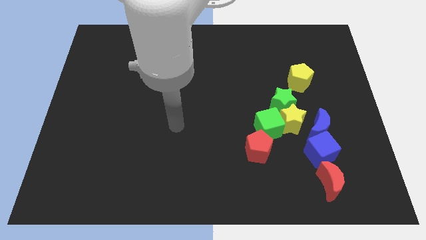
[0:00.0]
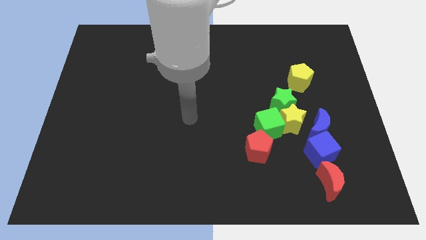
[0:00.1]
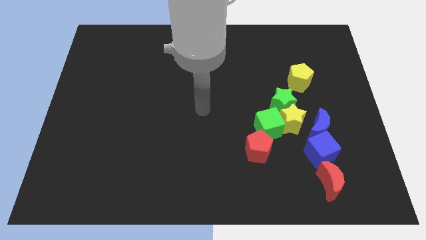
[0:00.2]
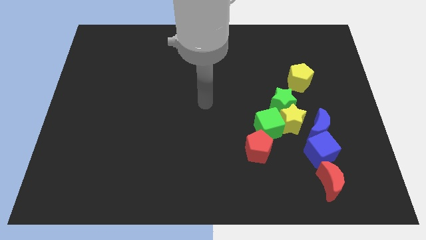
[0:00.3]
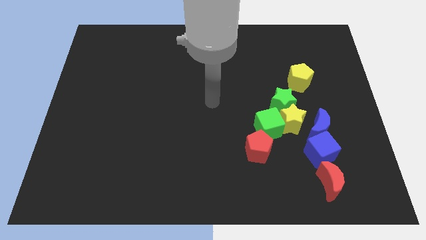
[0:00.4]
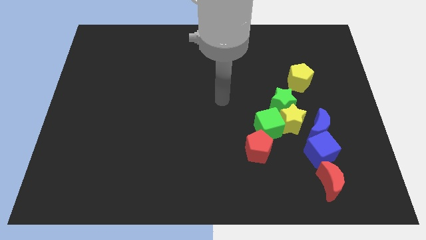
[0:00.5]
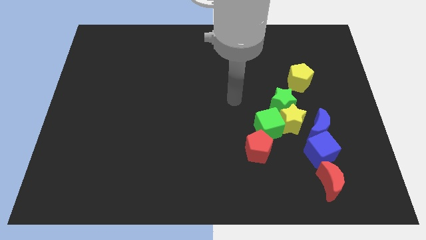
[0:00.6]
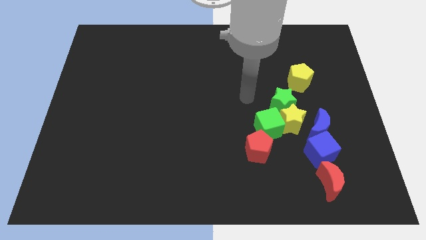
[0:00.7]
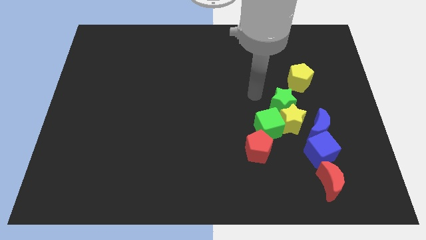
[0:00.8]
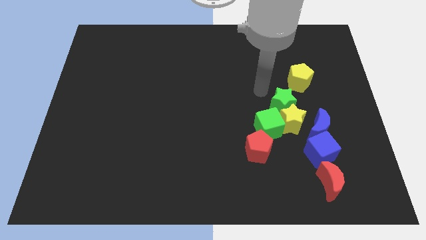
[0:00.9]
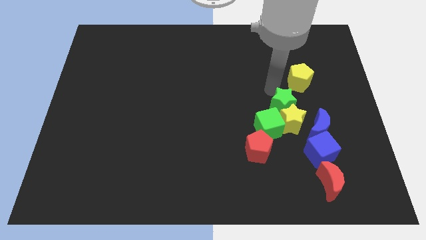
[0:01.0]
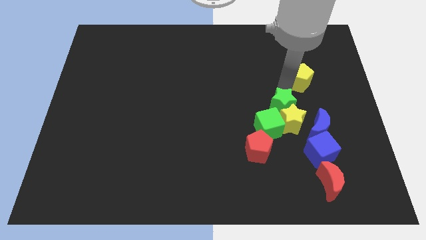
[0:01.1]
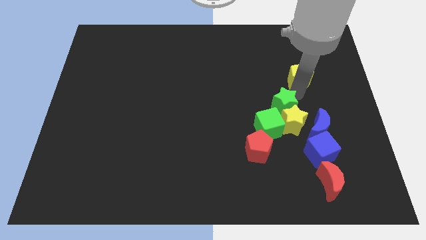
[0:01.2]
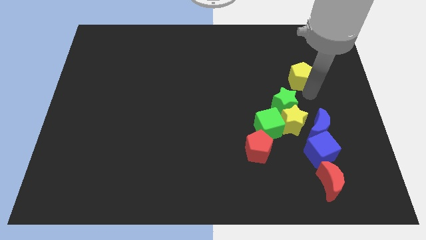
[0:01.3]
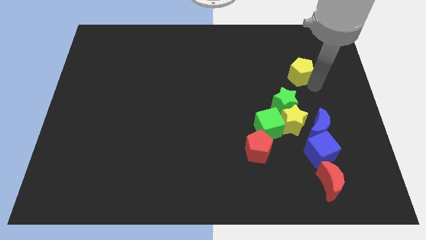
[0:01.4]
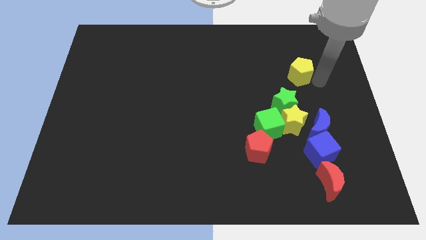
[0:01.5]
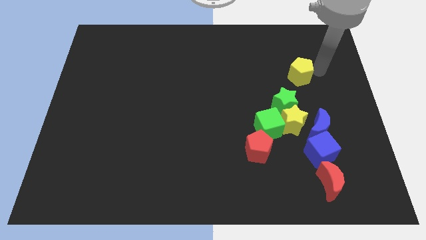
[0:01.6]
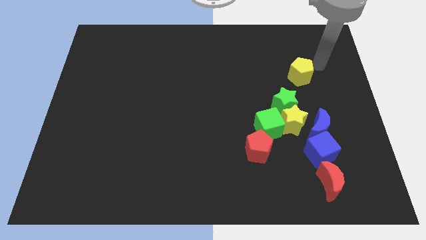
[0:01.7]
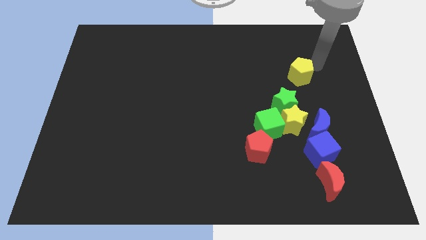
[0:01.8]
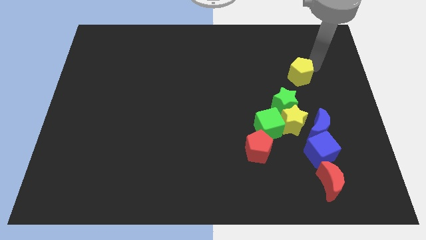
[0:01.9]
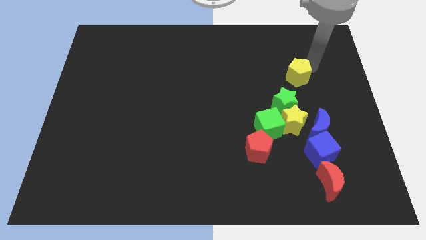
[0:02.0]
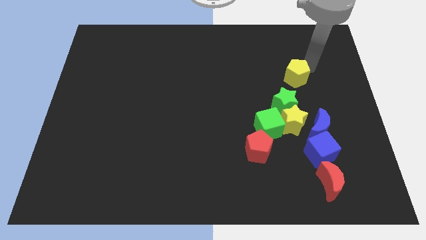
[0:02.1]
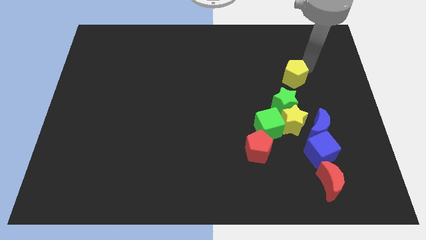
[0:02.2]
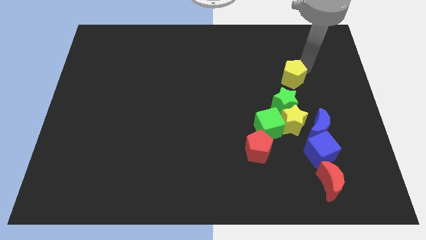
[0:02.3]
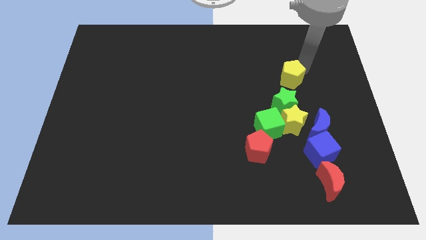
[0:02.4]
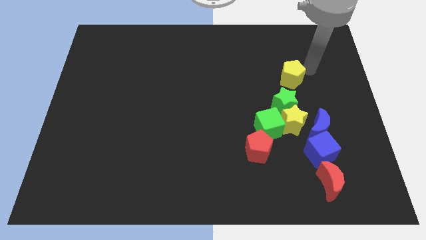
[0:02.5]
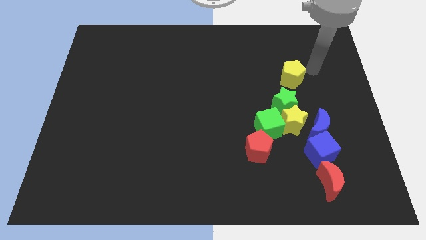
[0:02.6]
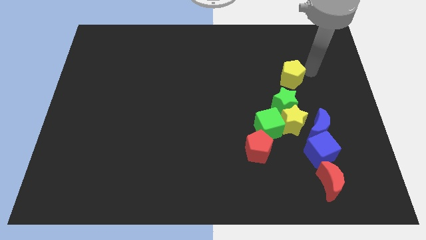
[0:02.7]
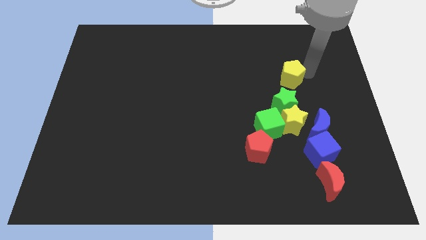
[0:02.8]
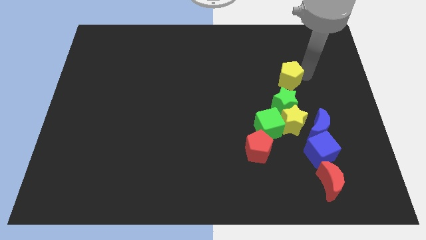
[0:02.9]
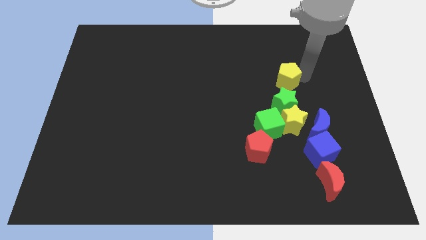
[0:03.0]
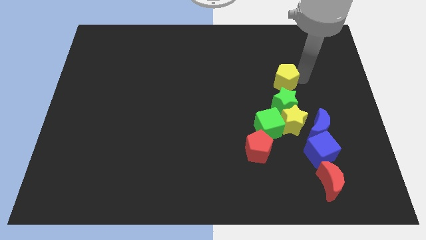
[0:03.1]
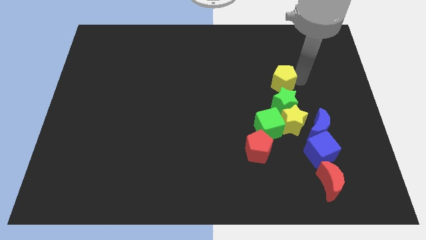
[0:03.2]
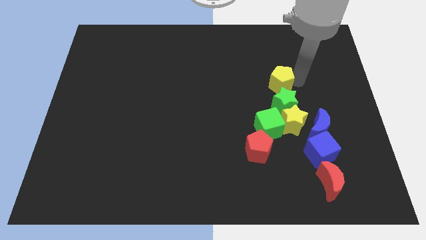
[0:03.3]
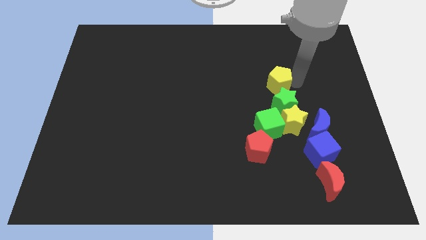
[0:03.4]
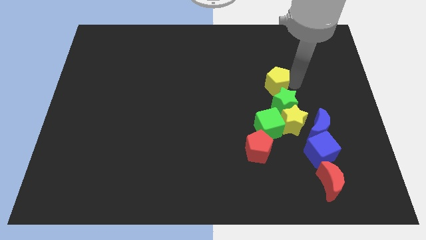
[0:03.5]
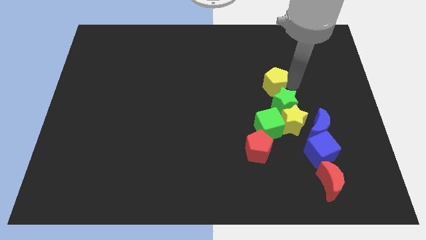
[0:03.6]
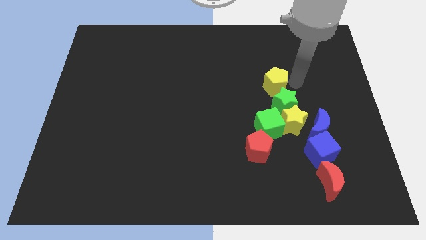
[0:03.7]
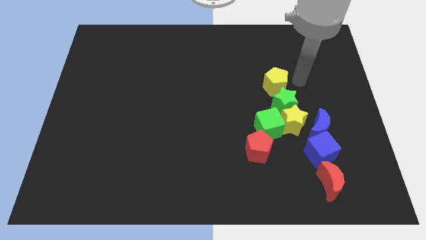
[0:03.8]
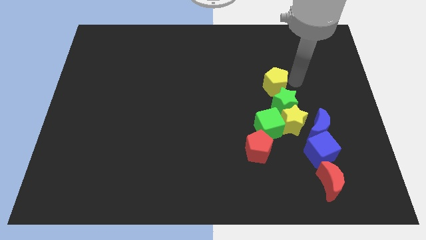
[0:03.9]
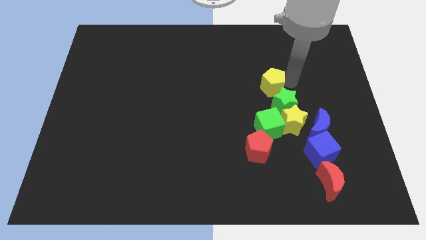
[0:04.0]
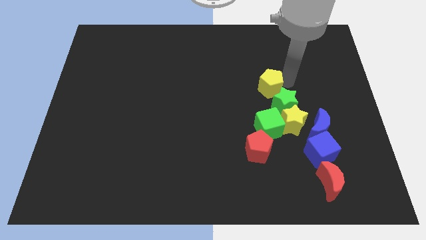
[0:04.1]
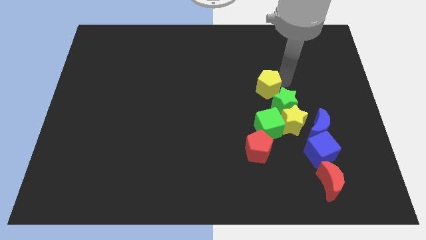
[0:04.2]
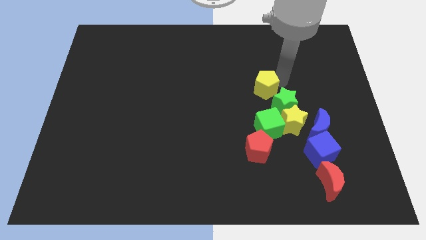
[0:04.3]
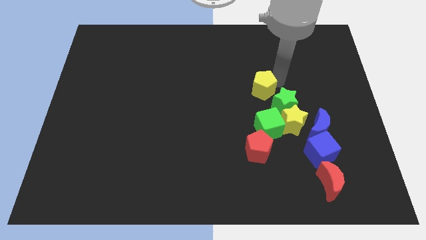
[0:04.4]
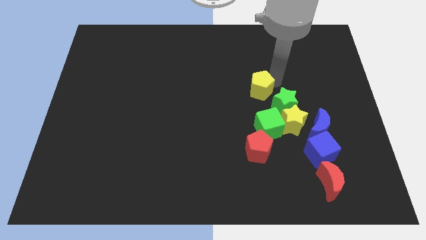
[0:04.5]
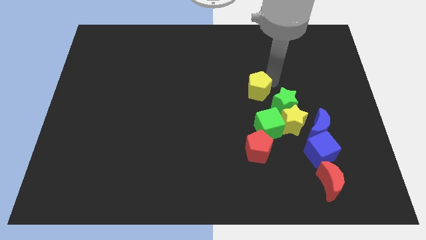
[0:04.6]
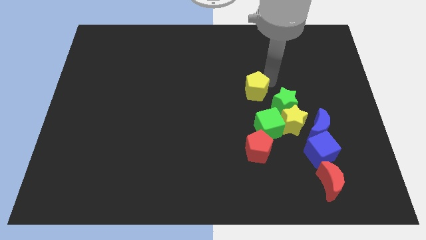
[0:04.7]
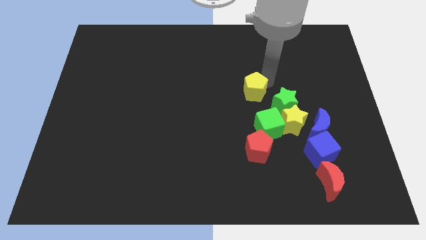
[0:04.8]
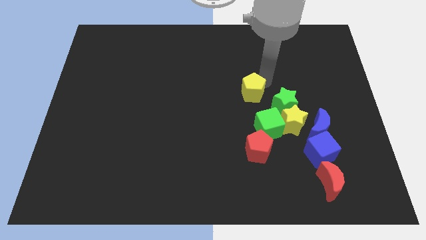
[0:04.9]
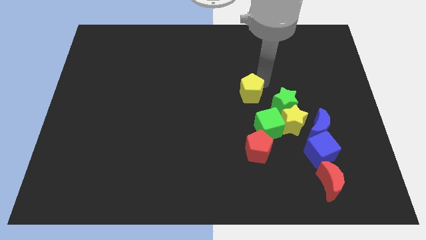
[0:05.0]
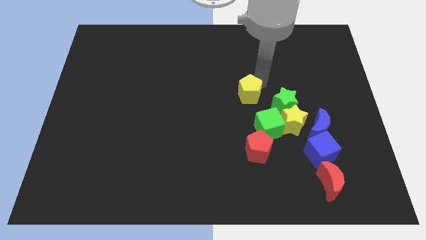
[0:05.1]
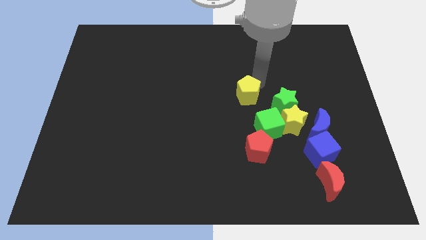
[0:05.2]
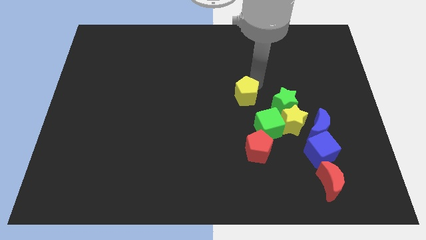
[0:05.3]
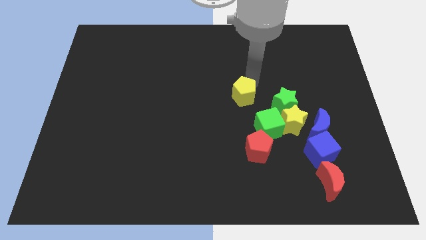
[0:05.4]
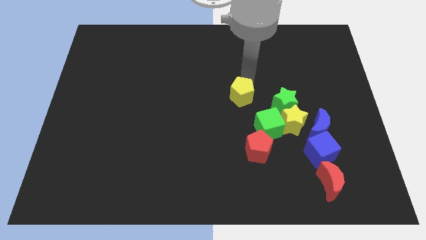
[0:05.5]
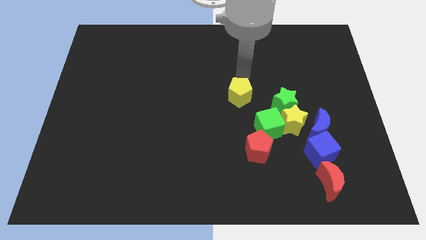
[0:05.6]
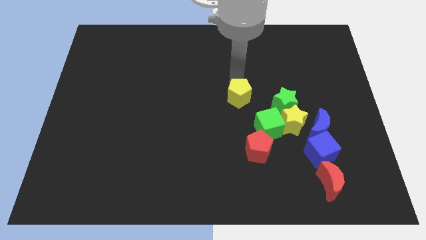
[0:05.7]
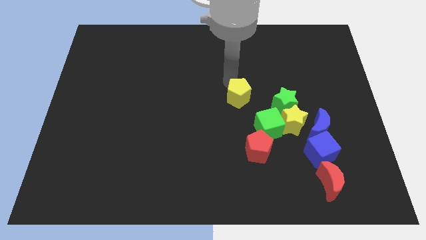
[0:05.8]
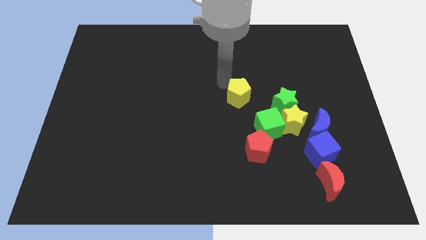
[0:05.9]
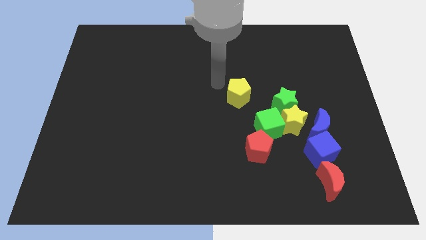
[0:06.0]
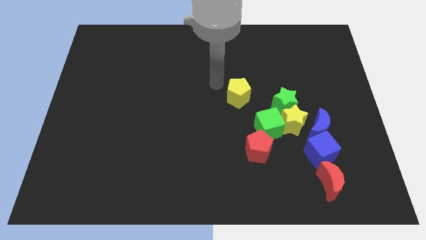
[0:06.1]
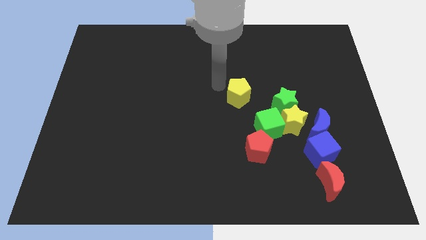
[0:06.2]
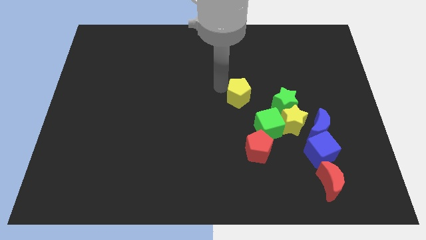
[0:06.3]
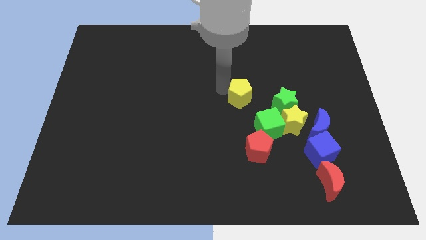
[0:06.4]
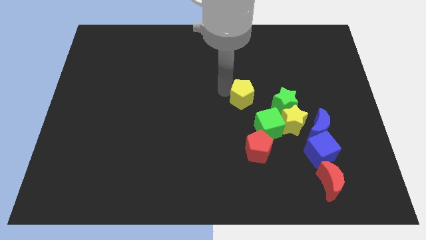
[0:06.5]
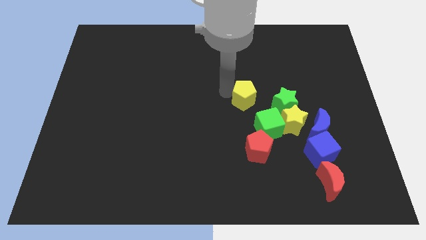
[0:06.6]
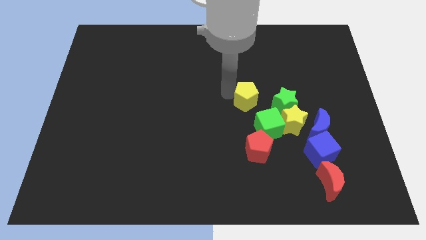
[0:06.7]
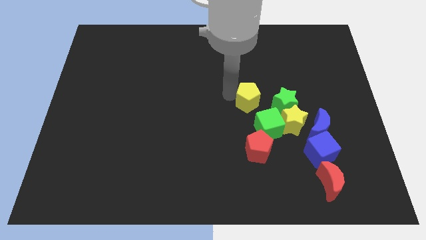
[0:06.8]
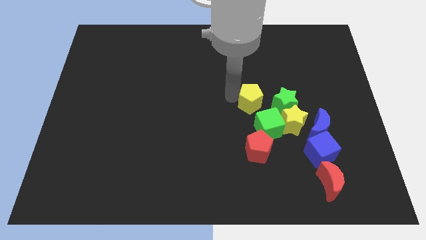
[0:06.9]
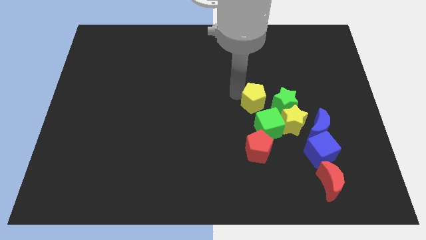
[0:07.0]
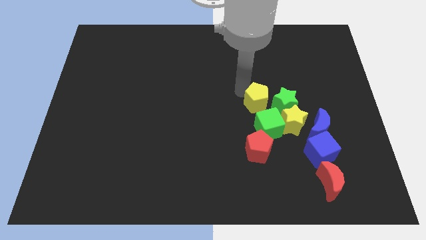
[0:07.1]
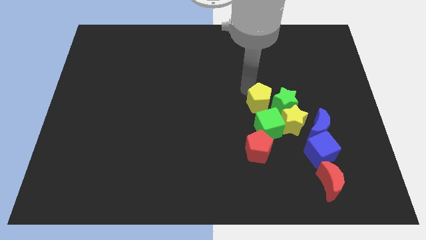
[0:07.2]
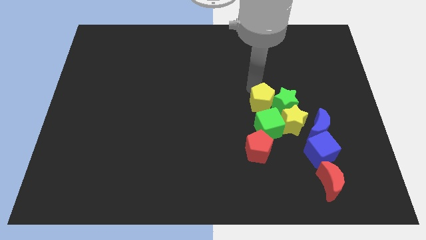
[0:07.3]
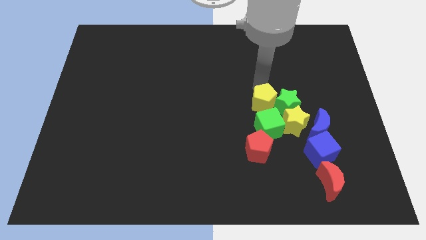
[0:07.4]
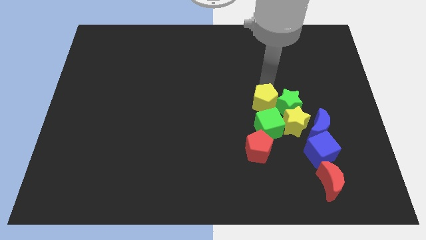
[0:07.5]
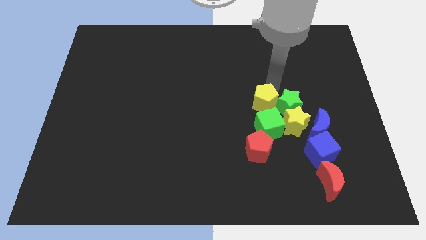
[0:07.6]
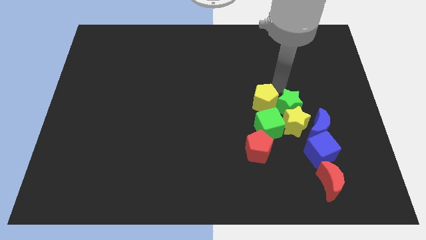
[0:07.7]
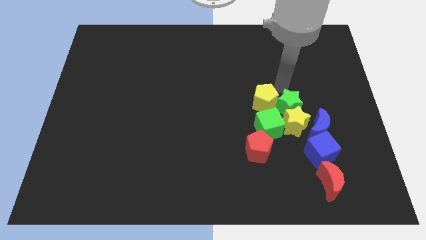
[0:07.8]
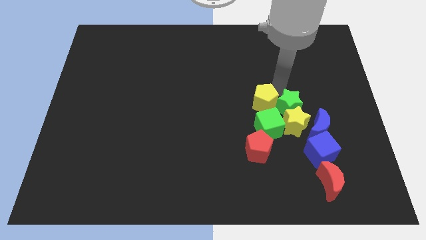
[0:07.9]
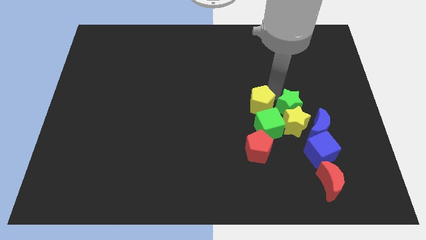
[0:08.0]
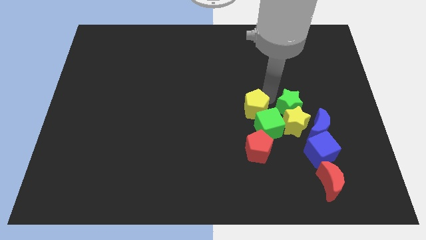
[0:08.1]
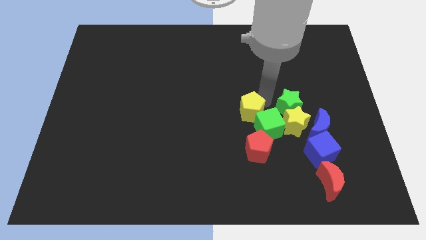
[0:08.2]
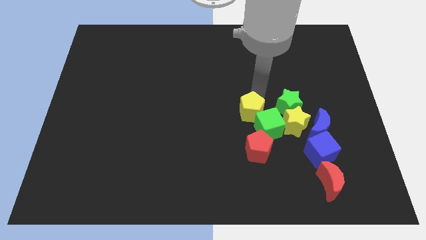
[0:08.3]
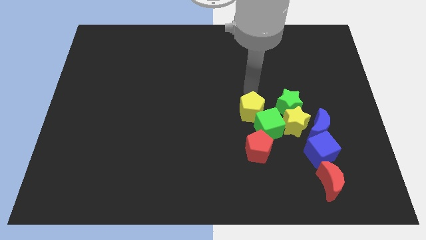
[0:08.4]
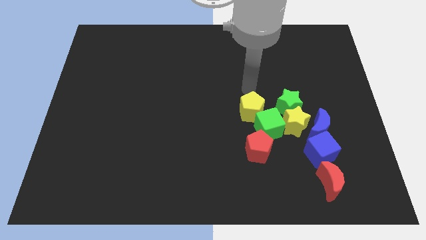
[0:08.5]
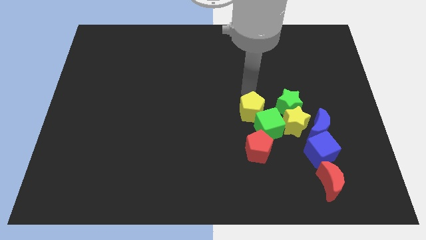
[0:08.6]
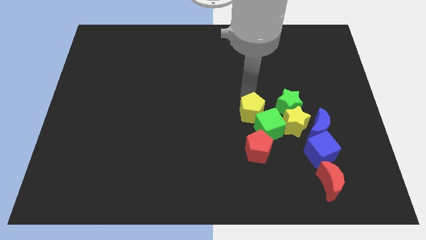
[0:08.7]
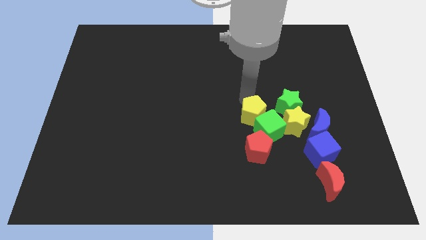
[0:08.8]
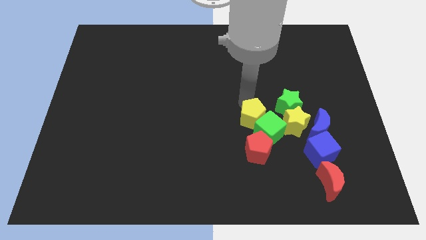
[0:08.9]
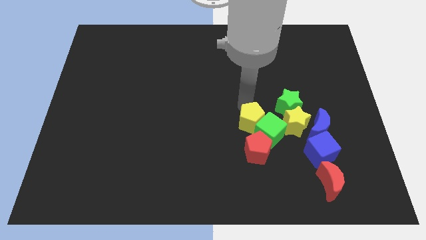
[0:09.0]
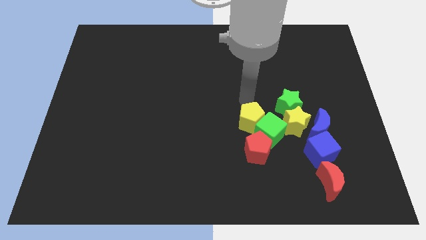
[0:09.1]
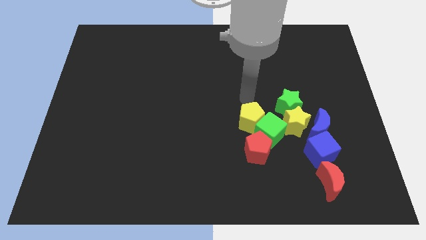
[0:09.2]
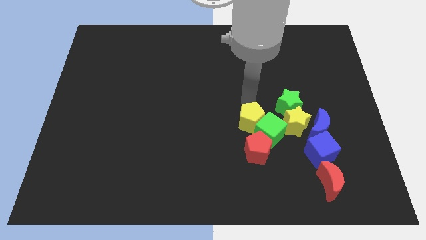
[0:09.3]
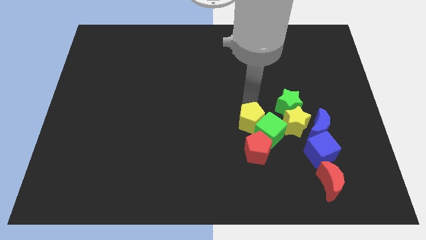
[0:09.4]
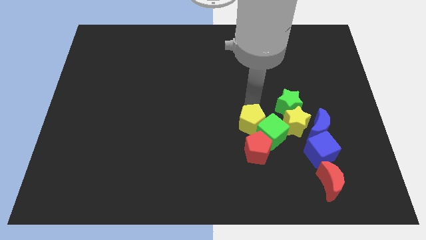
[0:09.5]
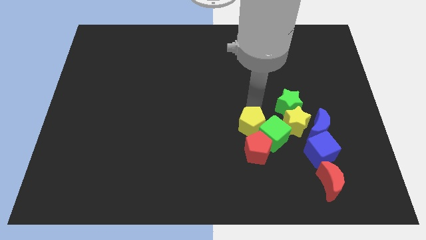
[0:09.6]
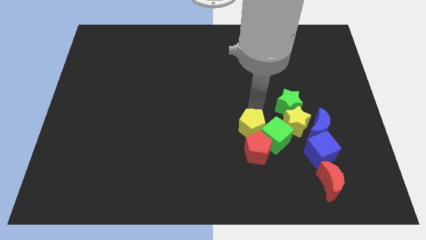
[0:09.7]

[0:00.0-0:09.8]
move the yellow pentagon to the red pentagon
